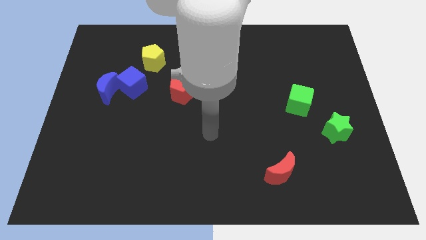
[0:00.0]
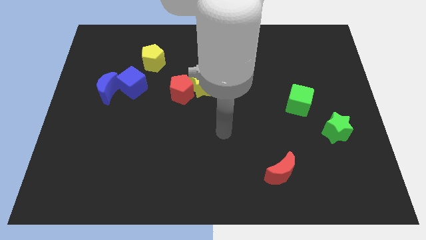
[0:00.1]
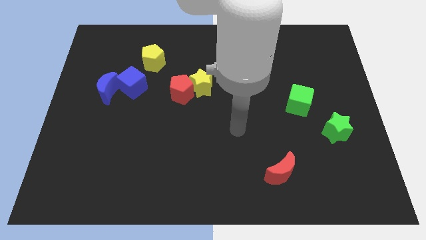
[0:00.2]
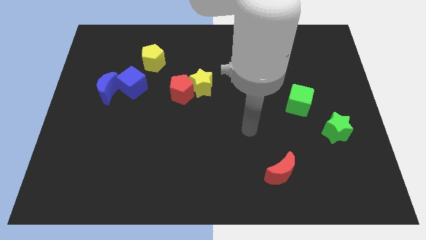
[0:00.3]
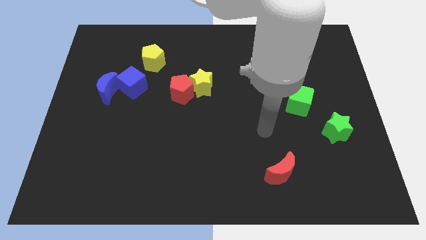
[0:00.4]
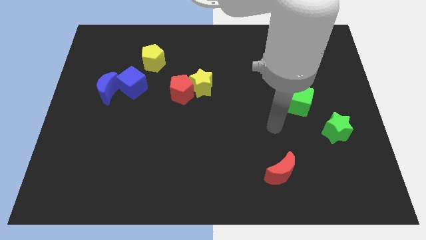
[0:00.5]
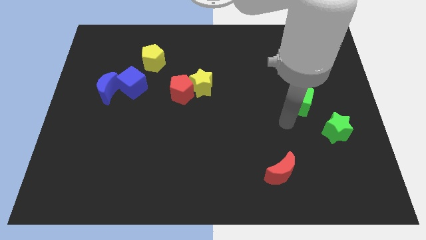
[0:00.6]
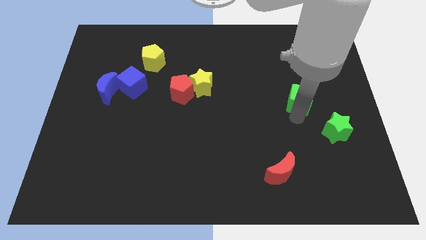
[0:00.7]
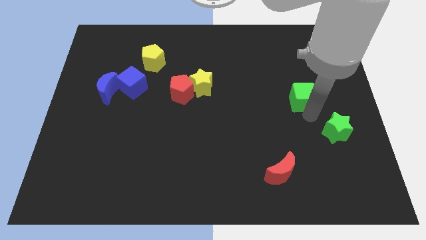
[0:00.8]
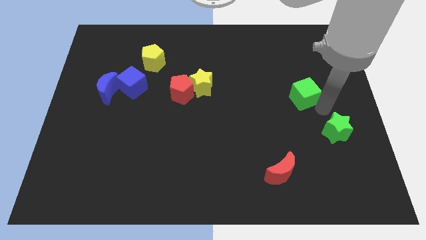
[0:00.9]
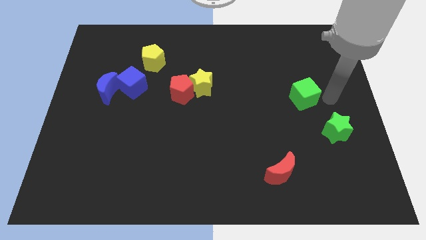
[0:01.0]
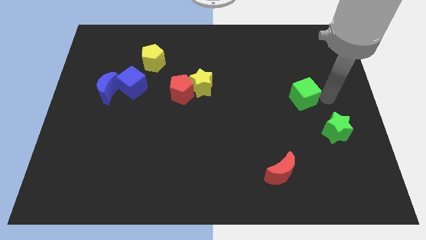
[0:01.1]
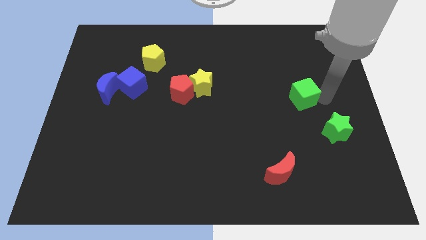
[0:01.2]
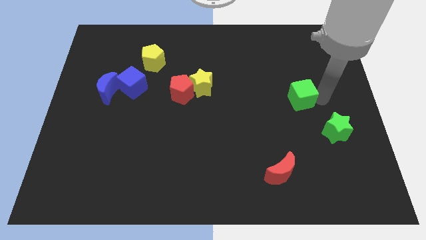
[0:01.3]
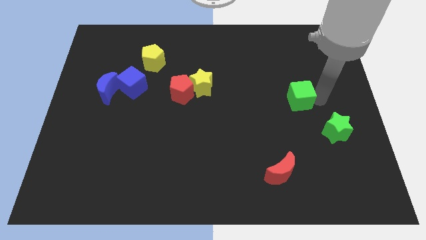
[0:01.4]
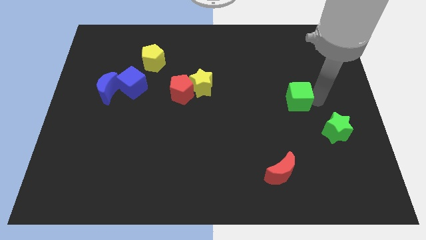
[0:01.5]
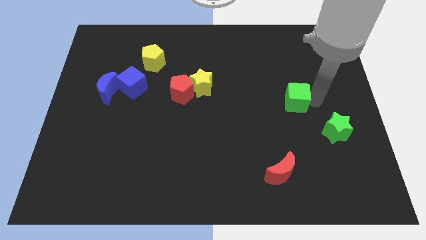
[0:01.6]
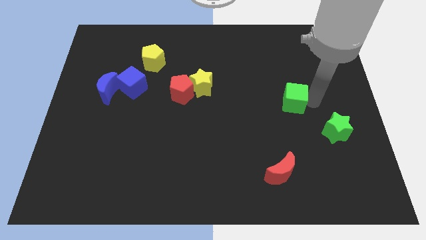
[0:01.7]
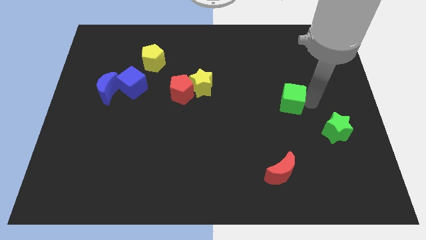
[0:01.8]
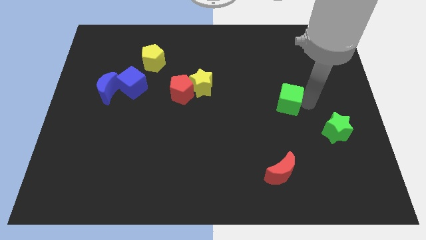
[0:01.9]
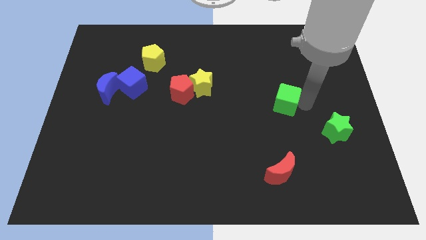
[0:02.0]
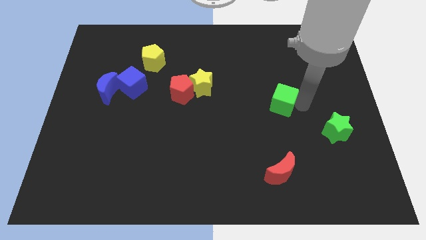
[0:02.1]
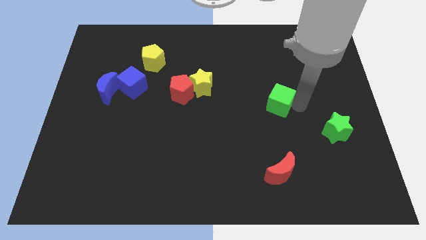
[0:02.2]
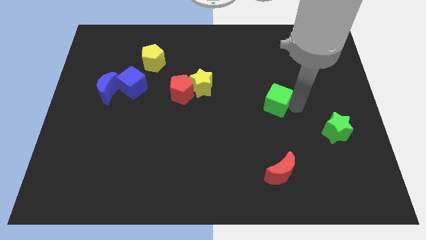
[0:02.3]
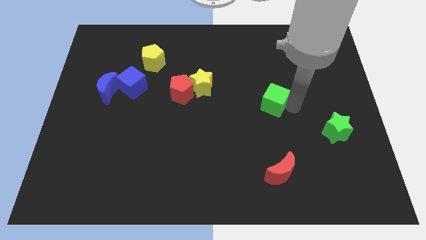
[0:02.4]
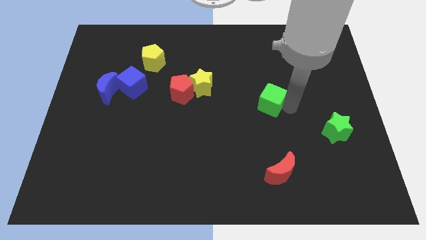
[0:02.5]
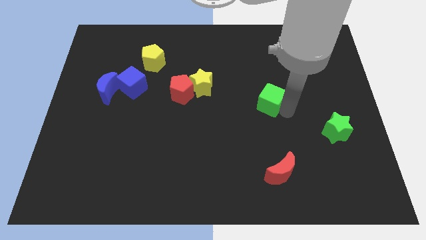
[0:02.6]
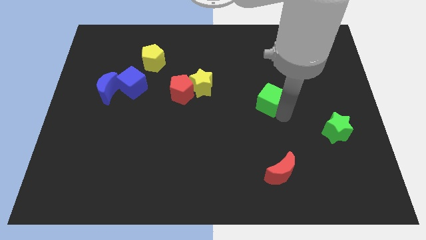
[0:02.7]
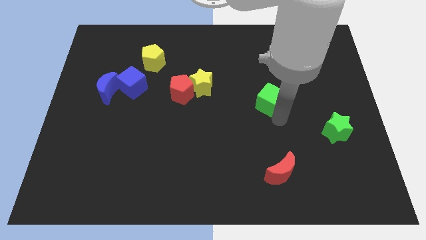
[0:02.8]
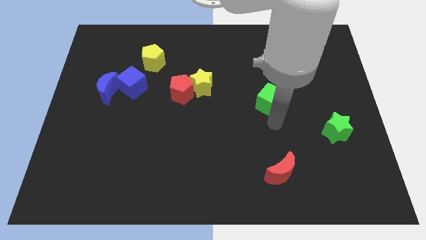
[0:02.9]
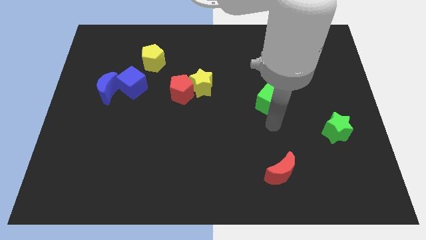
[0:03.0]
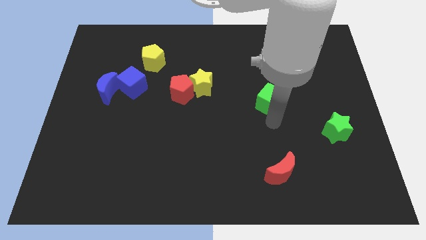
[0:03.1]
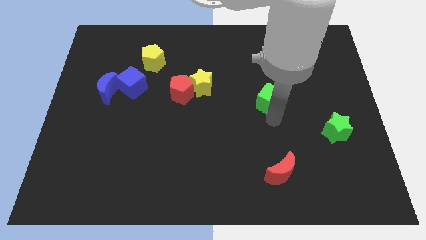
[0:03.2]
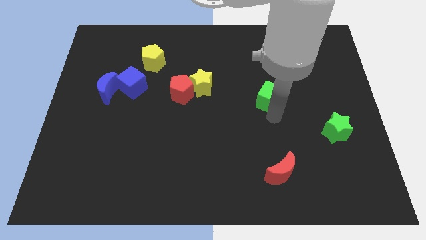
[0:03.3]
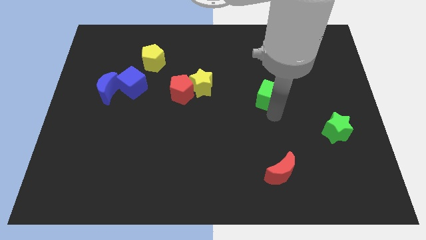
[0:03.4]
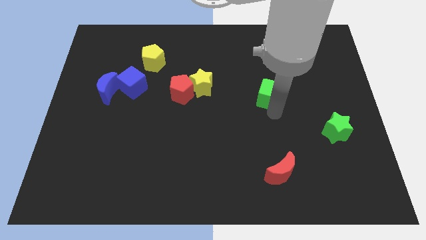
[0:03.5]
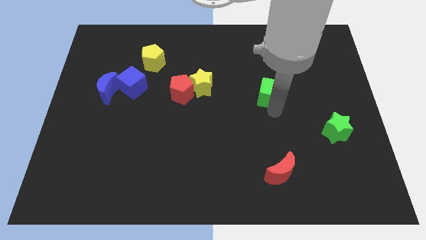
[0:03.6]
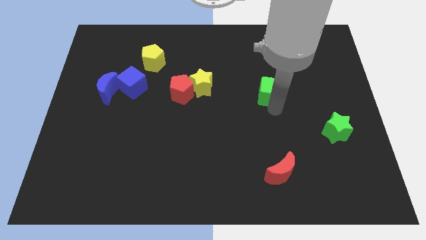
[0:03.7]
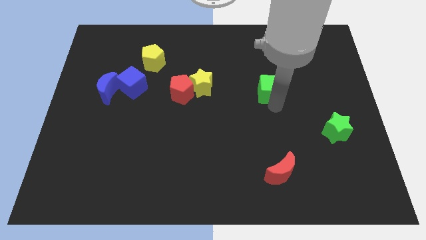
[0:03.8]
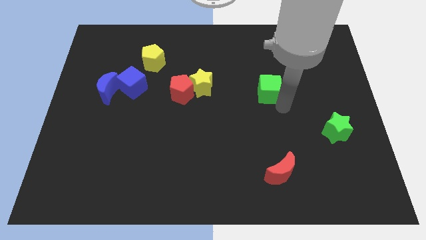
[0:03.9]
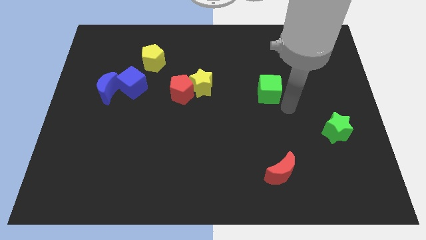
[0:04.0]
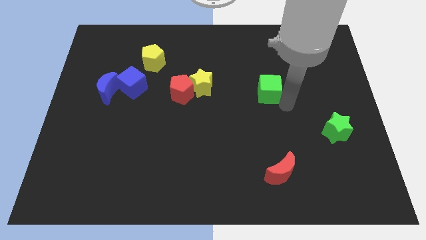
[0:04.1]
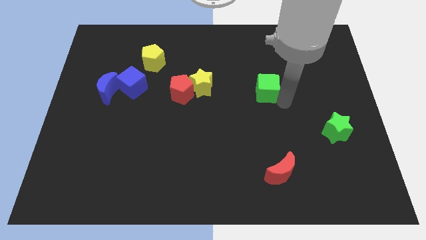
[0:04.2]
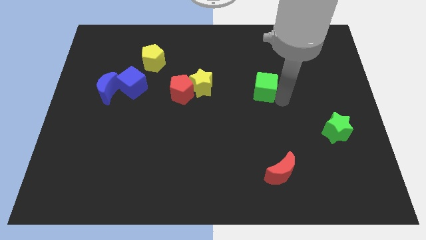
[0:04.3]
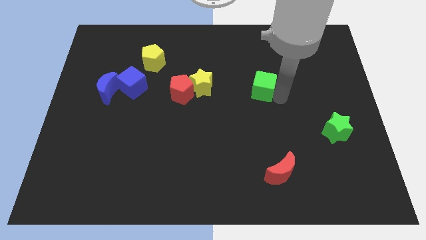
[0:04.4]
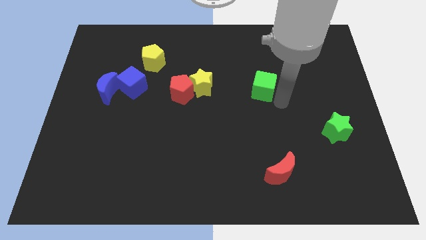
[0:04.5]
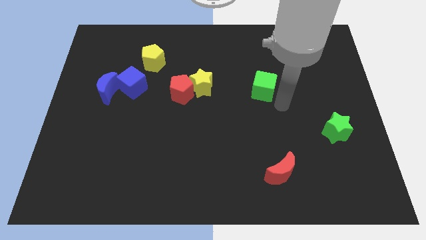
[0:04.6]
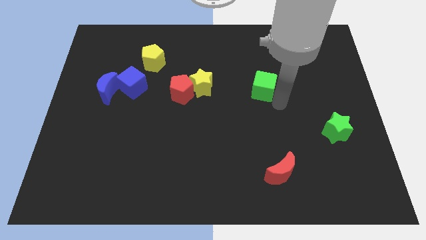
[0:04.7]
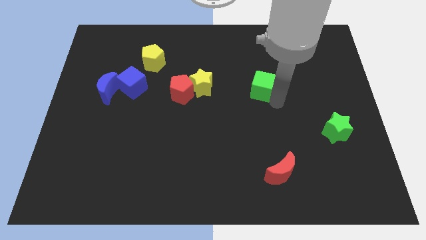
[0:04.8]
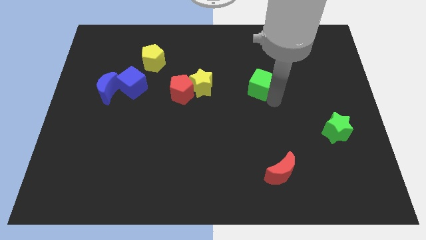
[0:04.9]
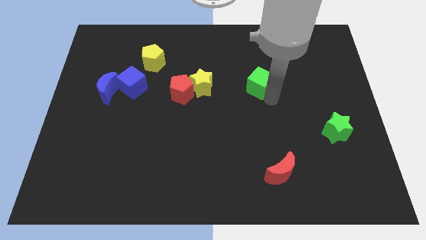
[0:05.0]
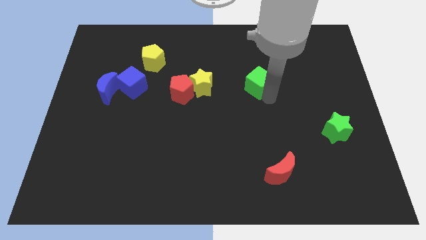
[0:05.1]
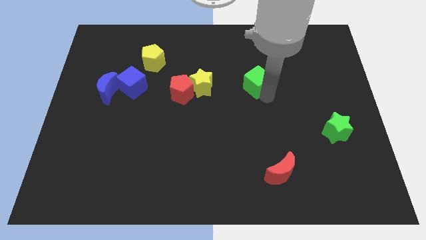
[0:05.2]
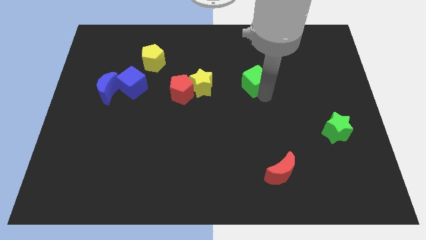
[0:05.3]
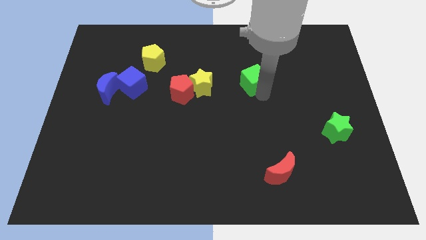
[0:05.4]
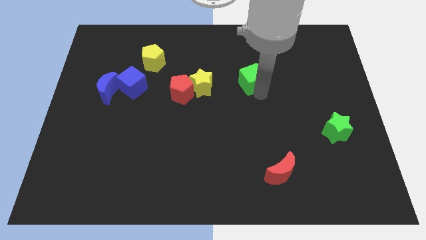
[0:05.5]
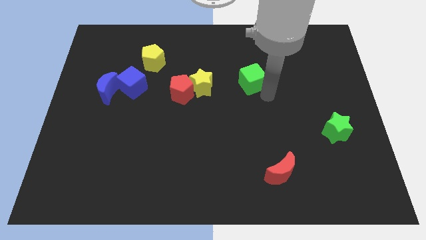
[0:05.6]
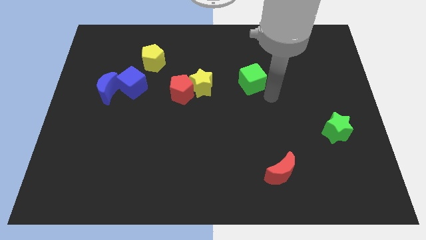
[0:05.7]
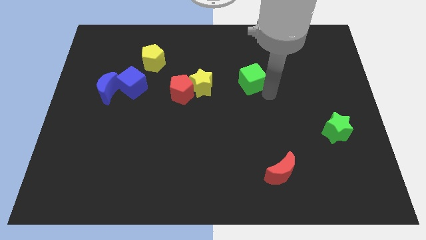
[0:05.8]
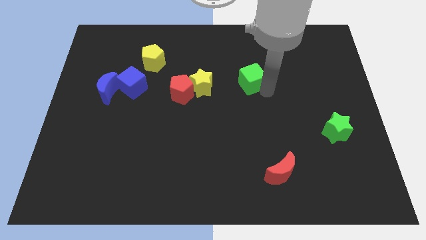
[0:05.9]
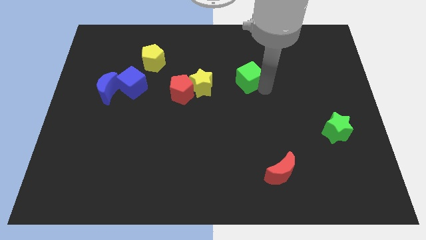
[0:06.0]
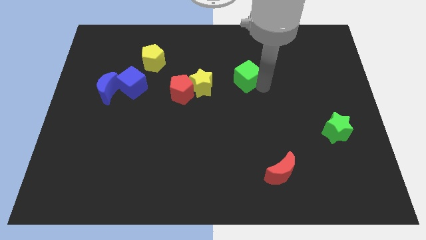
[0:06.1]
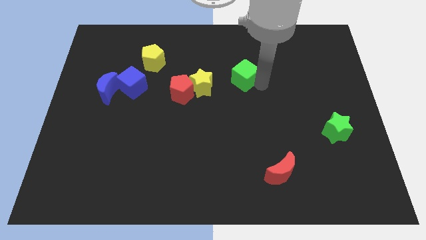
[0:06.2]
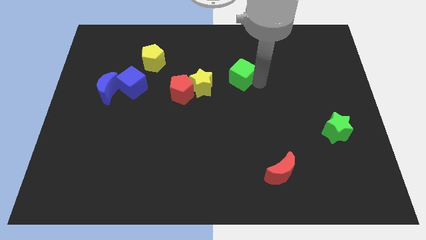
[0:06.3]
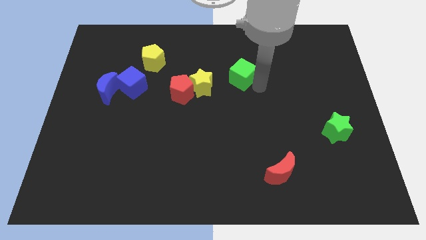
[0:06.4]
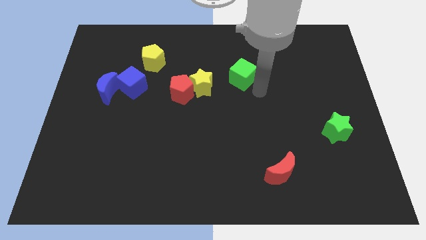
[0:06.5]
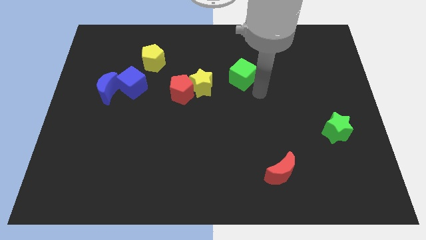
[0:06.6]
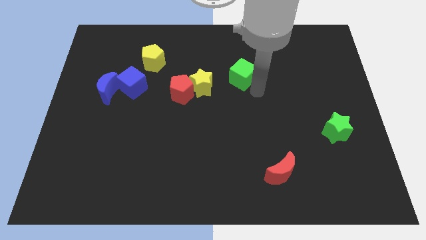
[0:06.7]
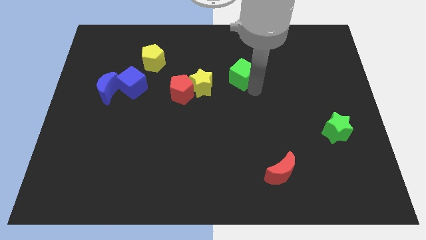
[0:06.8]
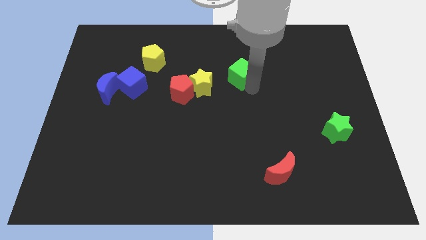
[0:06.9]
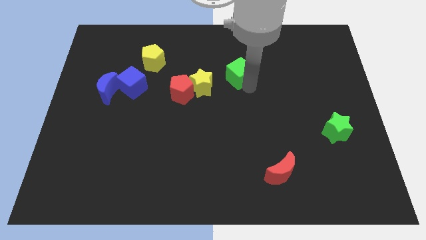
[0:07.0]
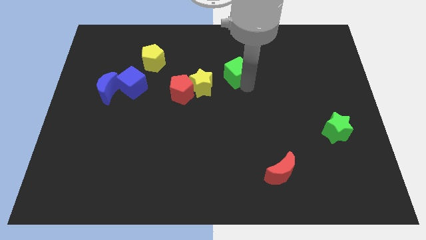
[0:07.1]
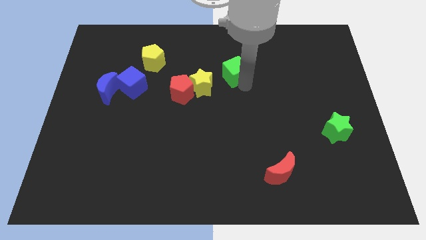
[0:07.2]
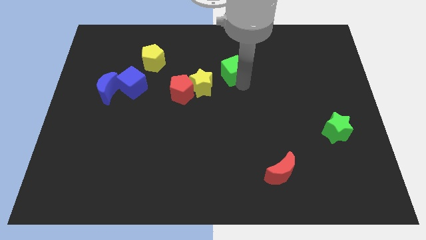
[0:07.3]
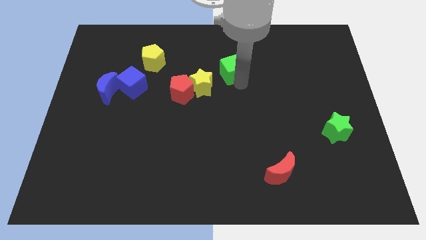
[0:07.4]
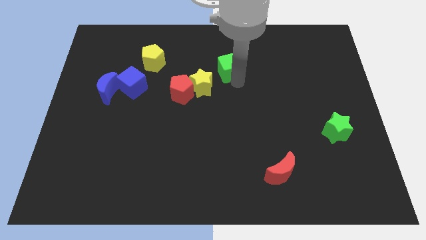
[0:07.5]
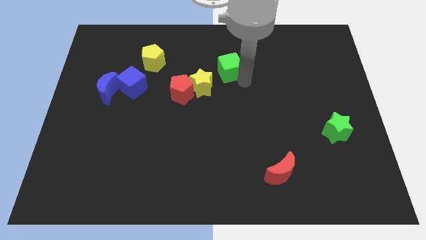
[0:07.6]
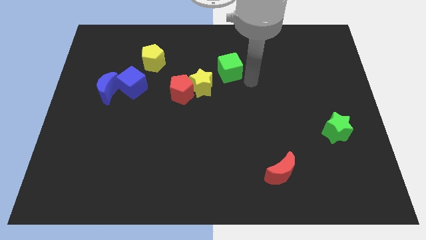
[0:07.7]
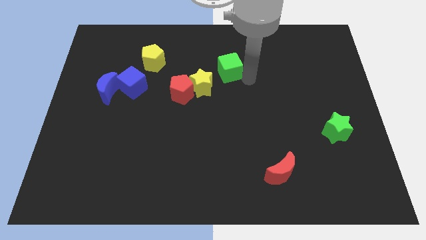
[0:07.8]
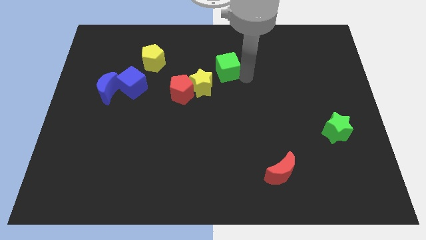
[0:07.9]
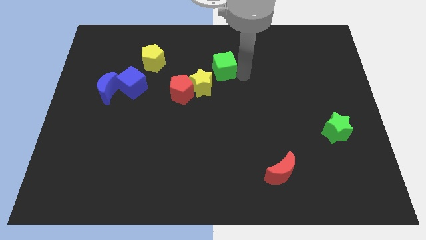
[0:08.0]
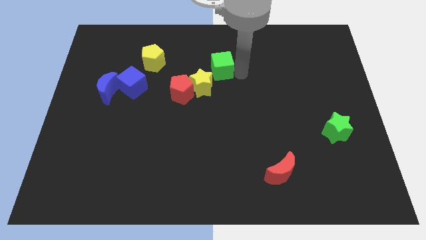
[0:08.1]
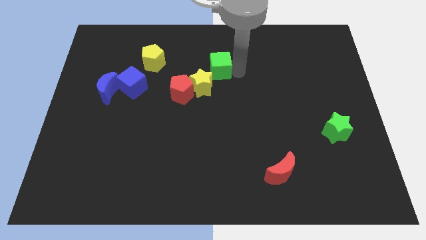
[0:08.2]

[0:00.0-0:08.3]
put the green cube above the yellow star
